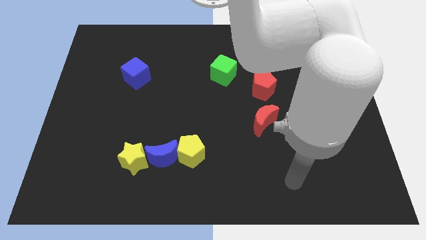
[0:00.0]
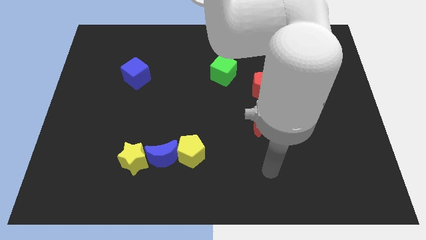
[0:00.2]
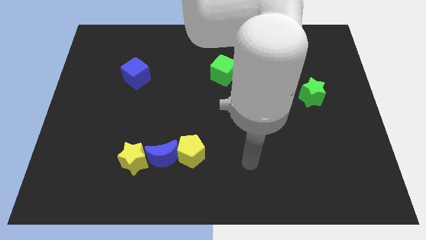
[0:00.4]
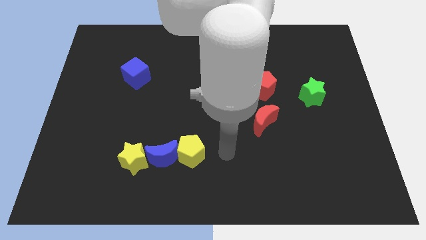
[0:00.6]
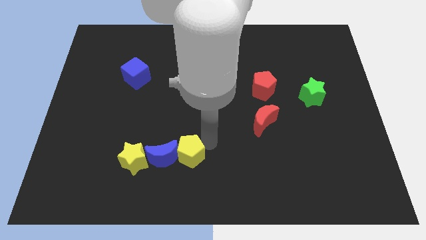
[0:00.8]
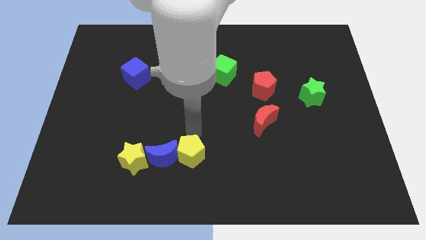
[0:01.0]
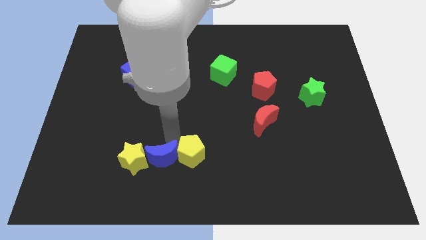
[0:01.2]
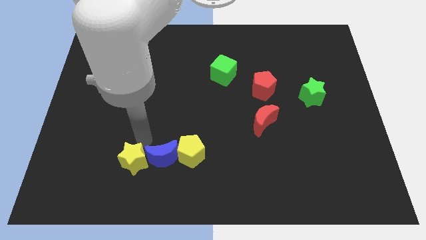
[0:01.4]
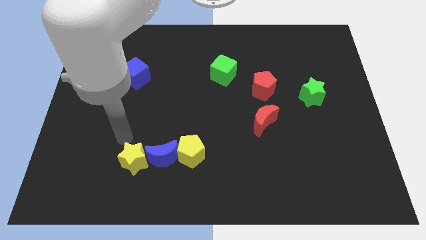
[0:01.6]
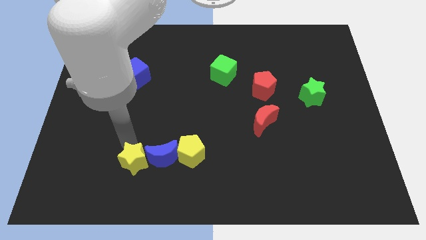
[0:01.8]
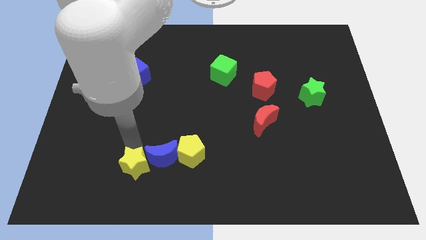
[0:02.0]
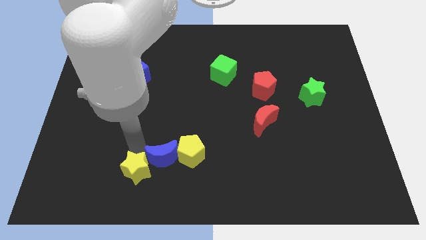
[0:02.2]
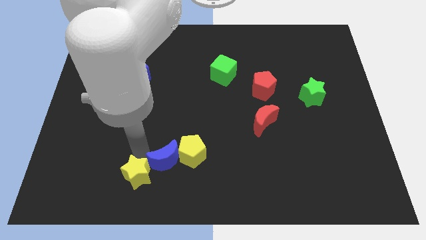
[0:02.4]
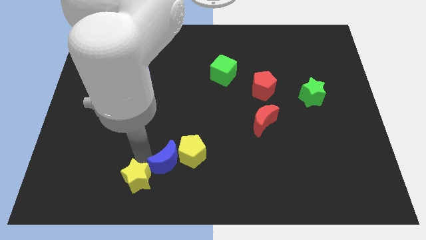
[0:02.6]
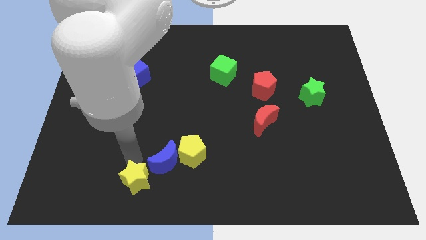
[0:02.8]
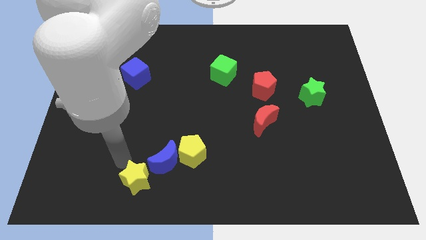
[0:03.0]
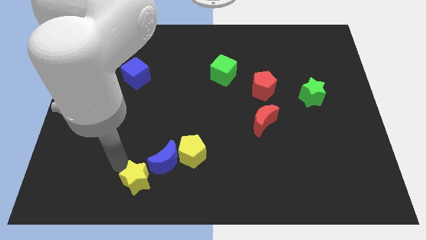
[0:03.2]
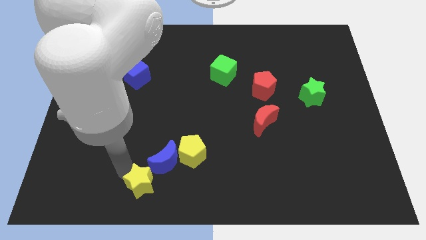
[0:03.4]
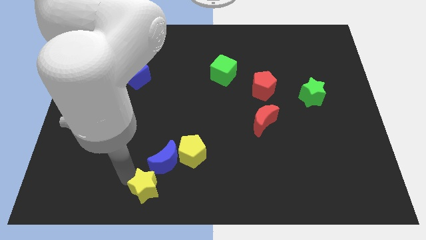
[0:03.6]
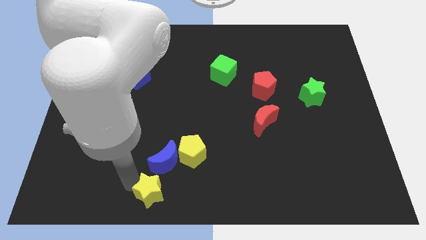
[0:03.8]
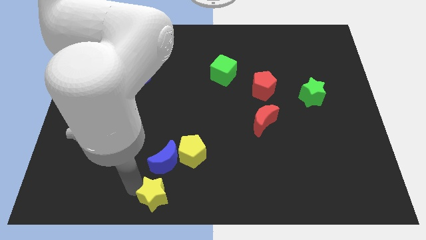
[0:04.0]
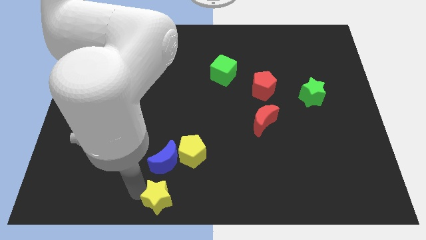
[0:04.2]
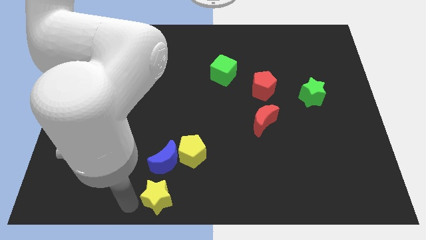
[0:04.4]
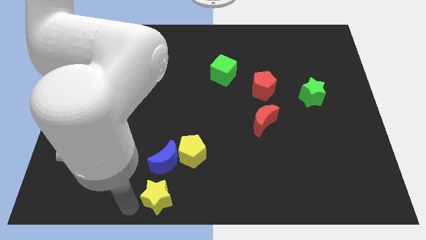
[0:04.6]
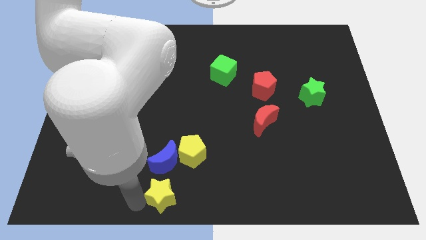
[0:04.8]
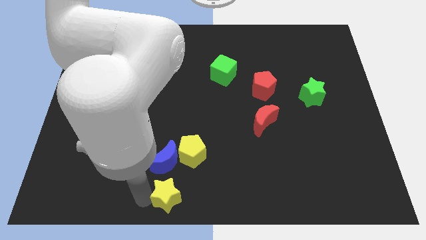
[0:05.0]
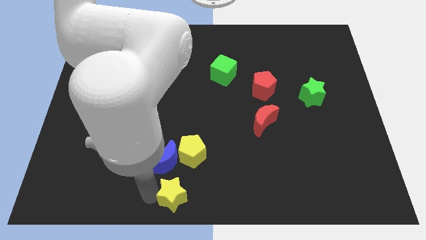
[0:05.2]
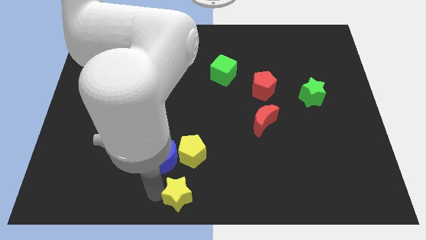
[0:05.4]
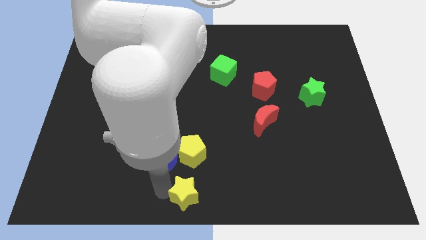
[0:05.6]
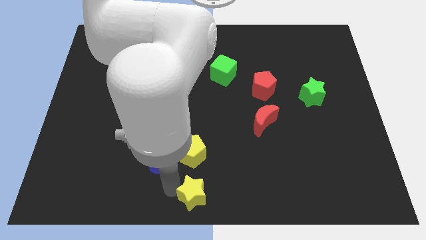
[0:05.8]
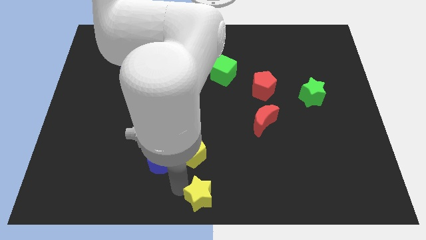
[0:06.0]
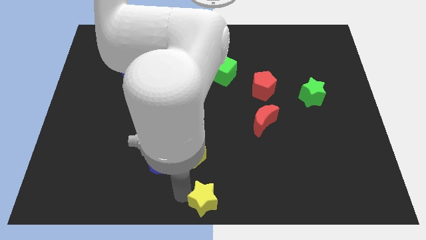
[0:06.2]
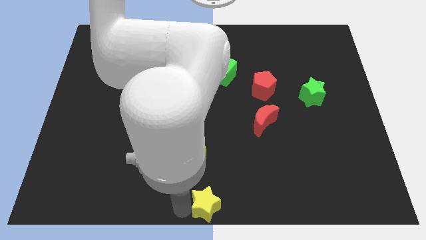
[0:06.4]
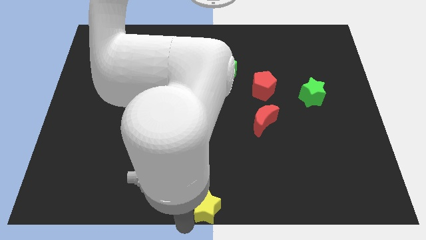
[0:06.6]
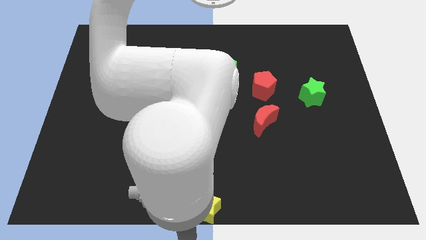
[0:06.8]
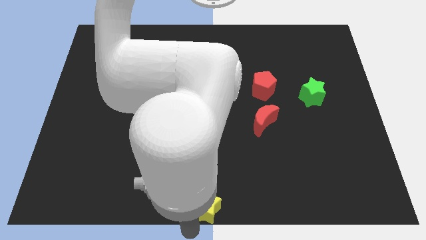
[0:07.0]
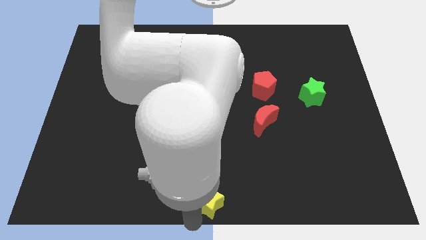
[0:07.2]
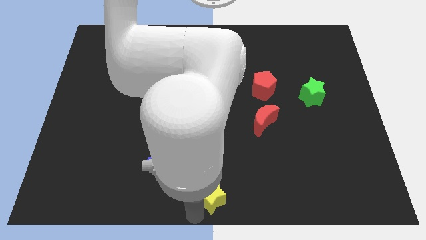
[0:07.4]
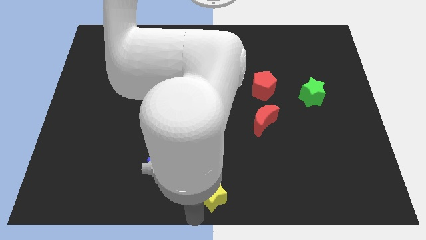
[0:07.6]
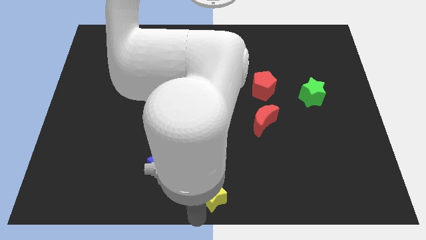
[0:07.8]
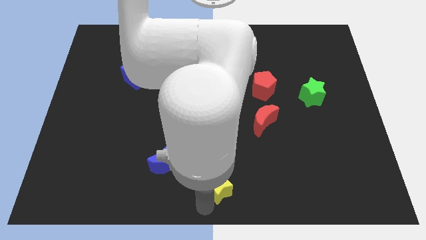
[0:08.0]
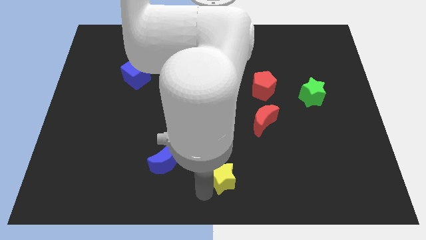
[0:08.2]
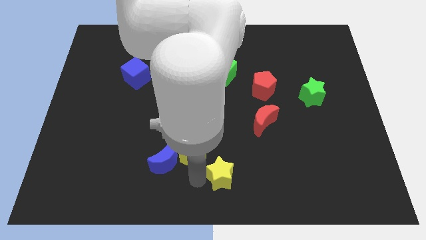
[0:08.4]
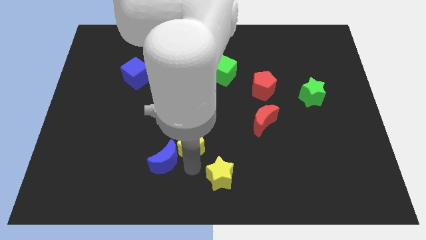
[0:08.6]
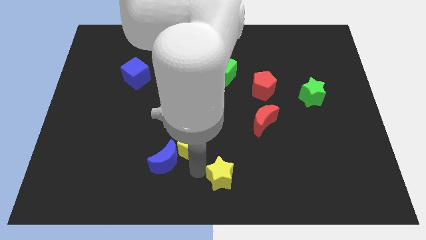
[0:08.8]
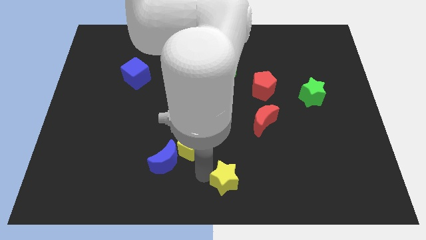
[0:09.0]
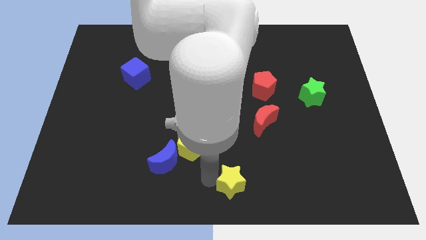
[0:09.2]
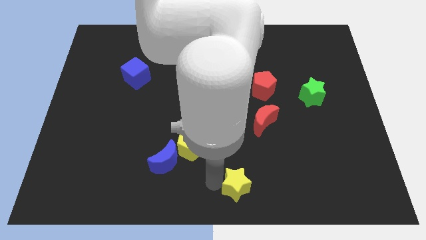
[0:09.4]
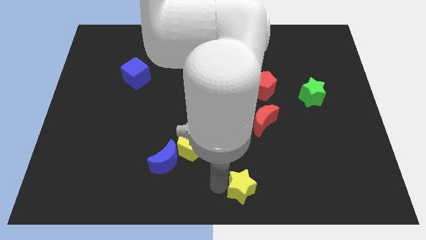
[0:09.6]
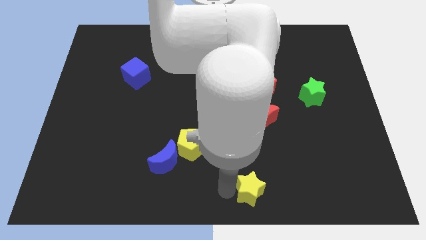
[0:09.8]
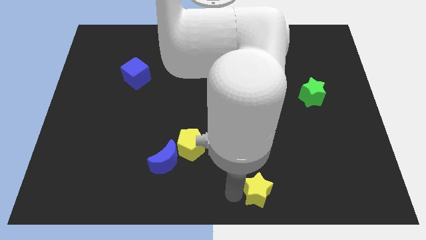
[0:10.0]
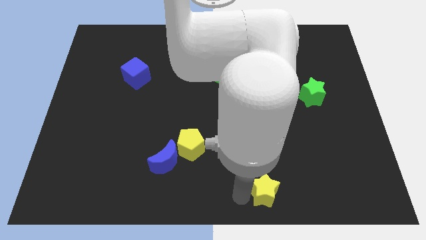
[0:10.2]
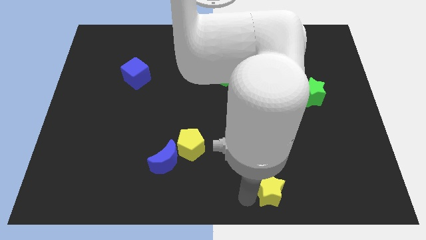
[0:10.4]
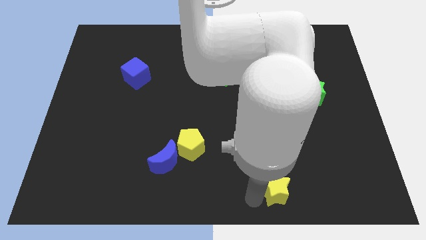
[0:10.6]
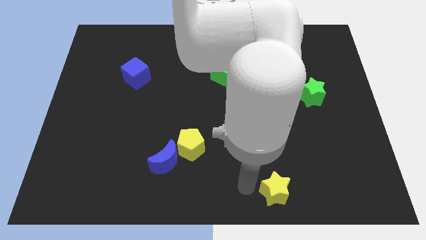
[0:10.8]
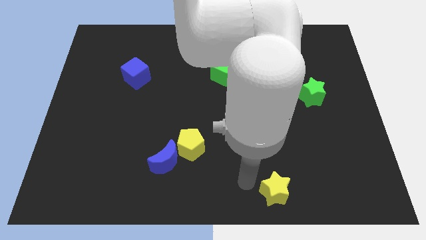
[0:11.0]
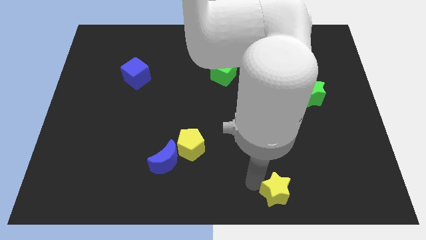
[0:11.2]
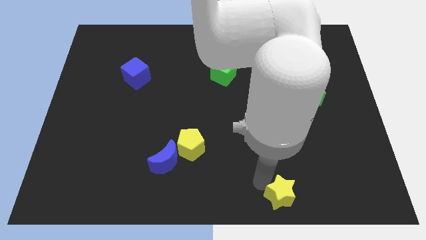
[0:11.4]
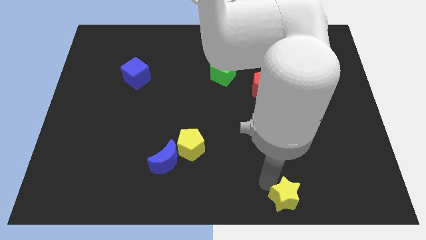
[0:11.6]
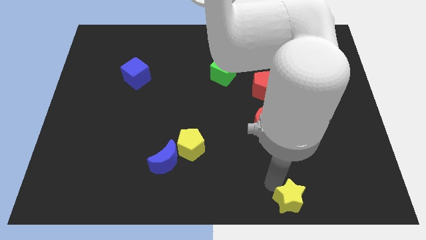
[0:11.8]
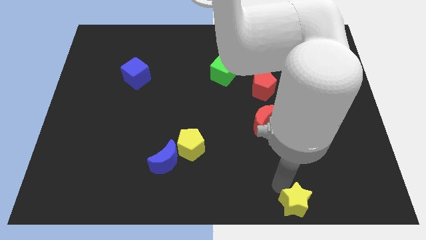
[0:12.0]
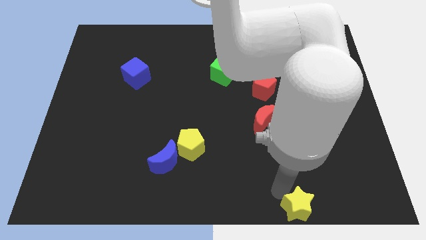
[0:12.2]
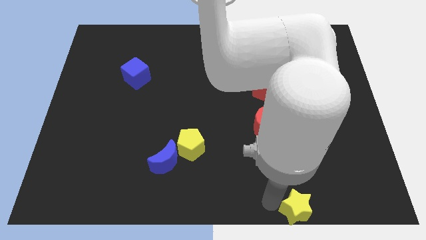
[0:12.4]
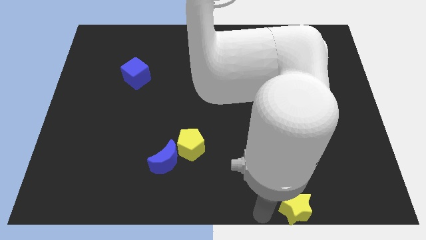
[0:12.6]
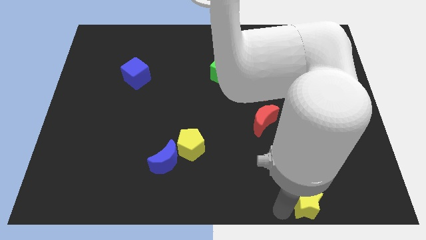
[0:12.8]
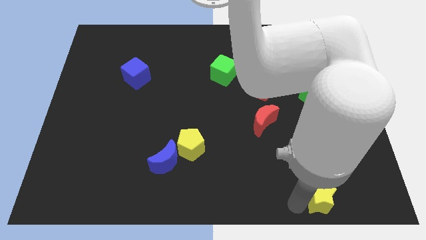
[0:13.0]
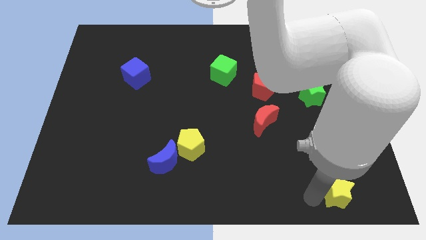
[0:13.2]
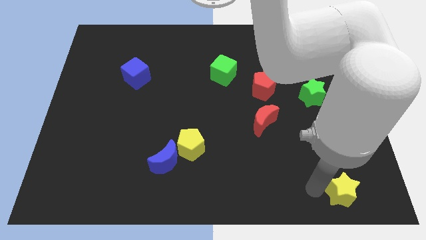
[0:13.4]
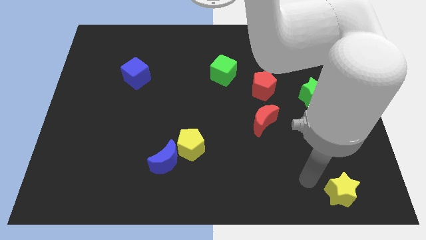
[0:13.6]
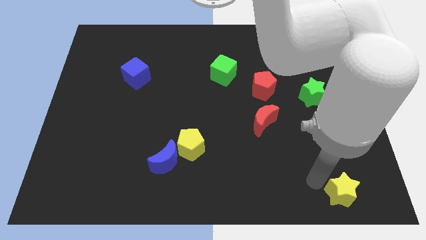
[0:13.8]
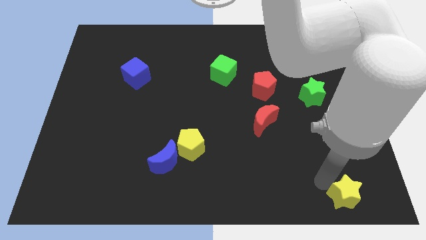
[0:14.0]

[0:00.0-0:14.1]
put the yellow star to the bottom right corner

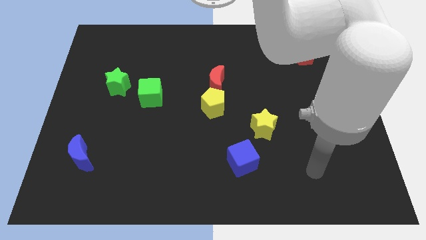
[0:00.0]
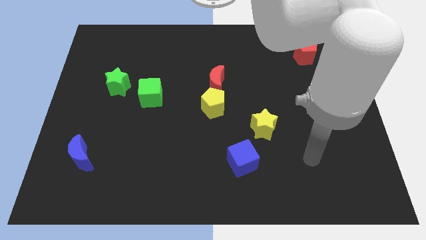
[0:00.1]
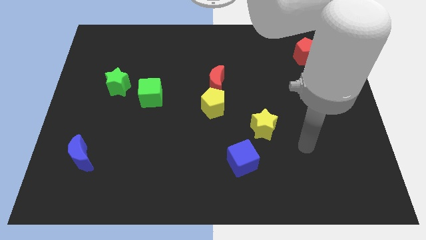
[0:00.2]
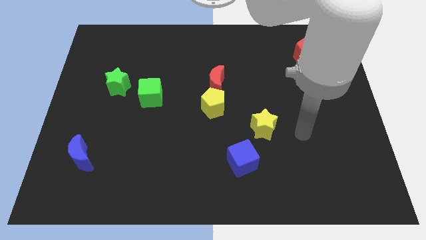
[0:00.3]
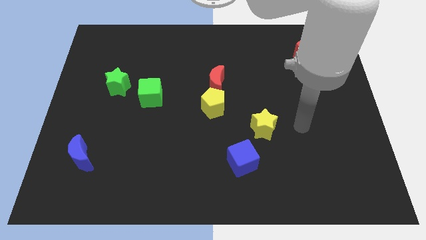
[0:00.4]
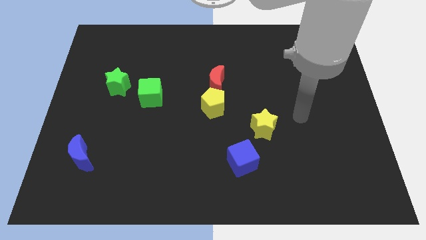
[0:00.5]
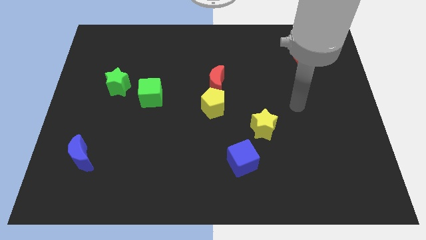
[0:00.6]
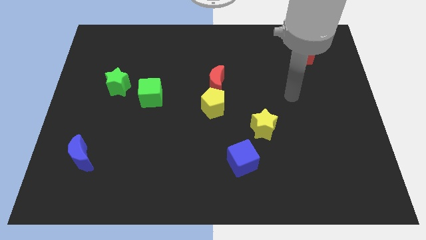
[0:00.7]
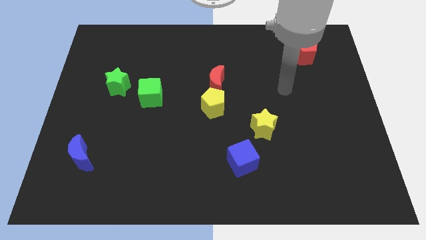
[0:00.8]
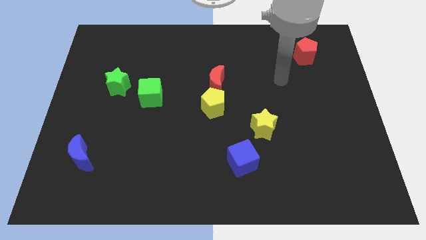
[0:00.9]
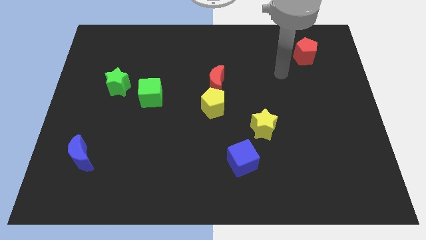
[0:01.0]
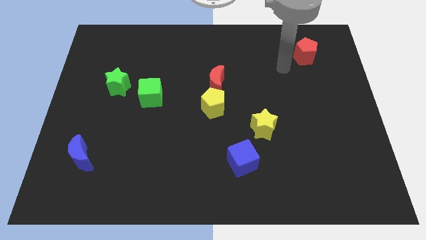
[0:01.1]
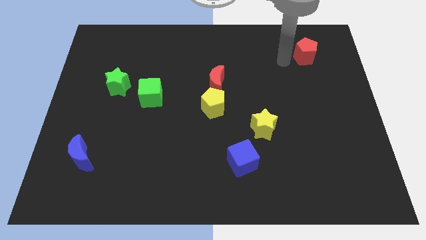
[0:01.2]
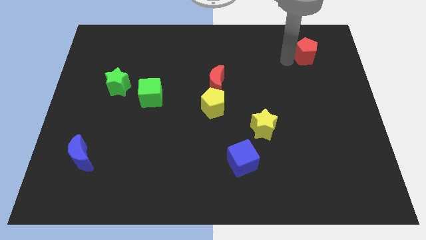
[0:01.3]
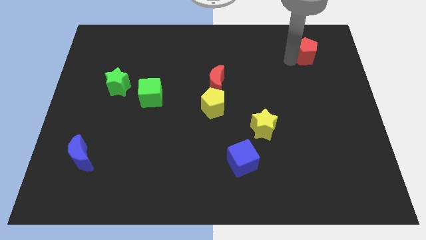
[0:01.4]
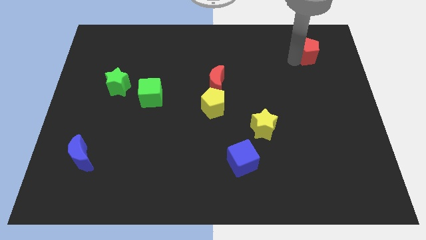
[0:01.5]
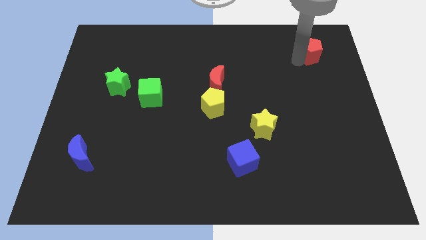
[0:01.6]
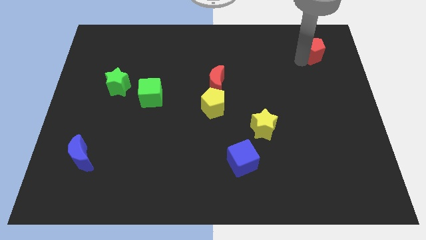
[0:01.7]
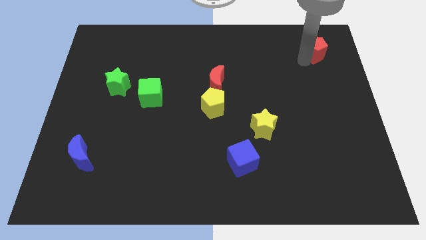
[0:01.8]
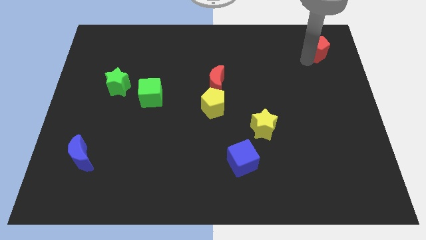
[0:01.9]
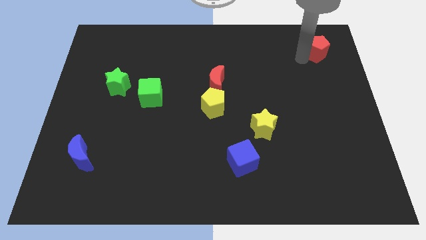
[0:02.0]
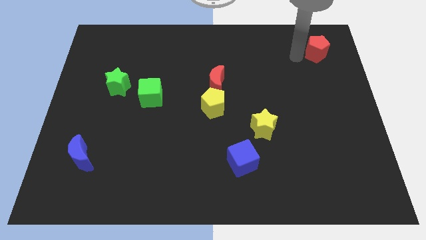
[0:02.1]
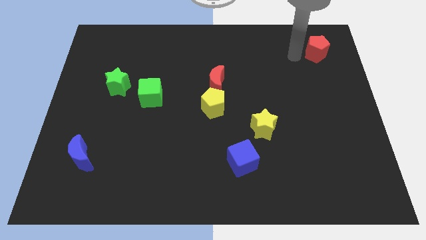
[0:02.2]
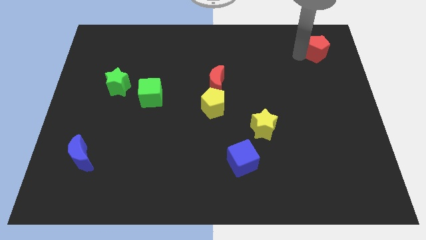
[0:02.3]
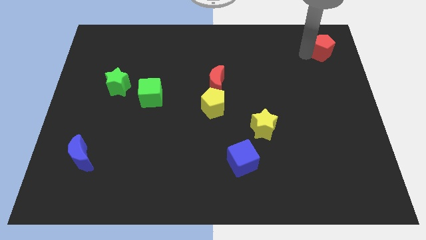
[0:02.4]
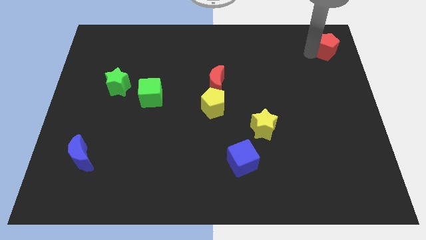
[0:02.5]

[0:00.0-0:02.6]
put the red pentagon to the top right corner
